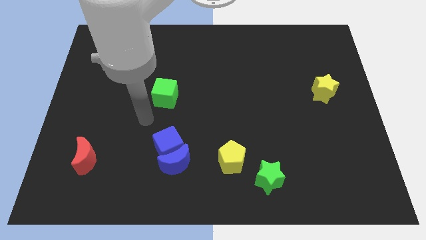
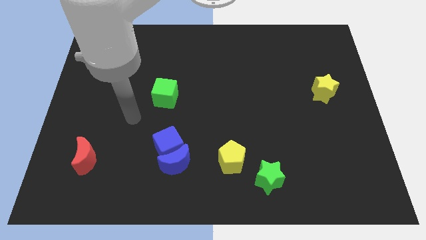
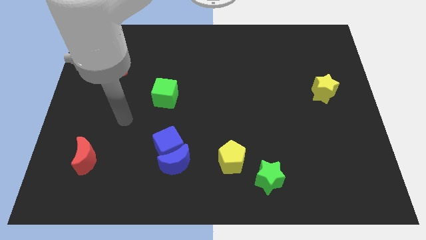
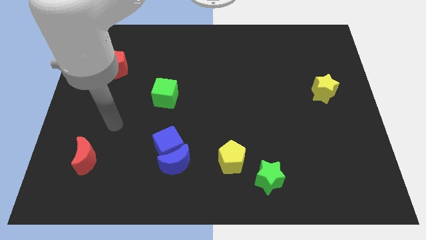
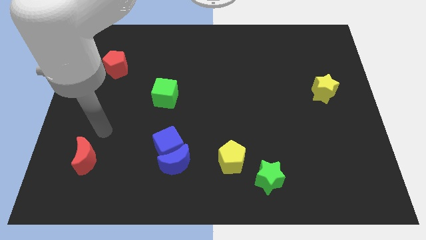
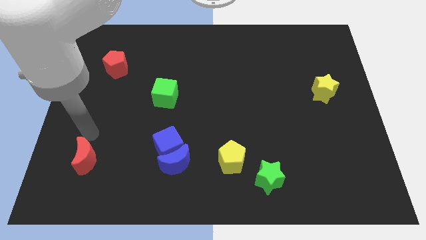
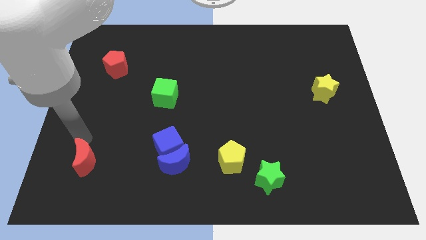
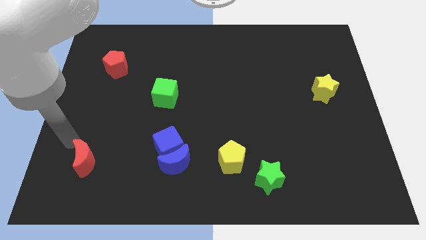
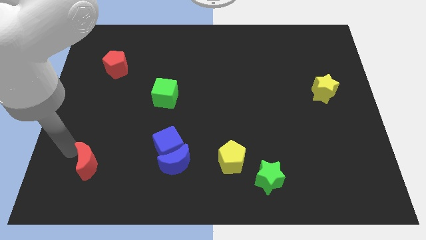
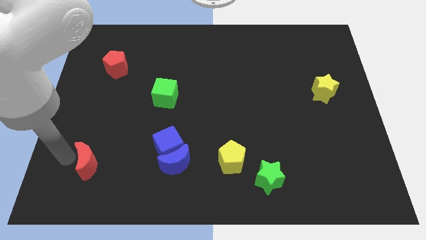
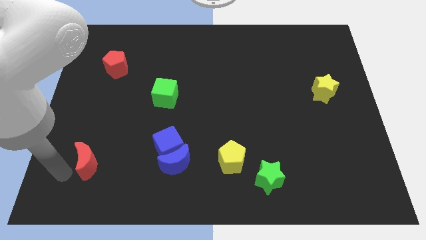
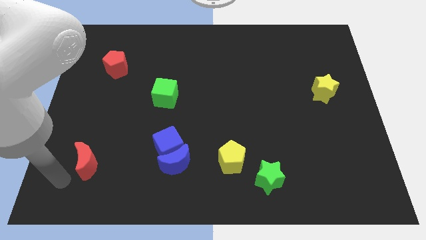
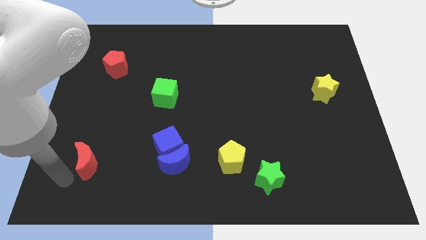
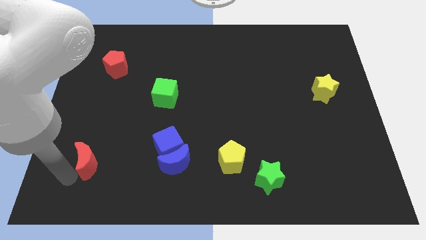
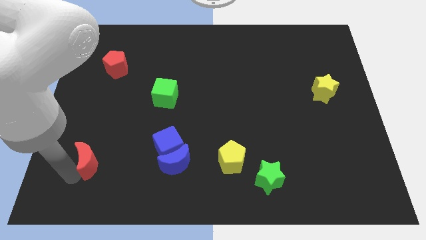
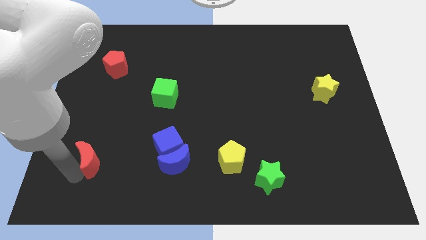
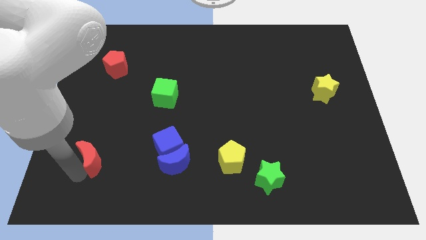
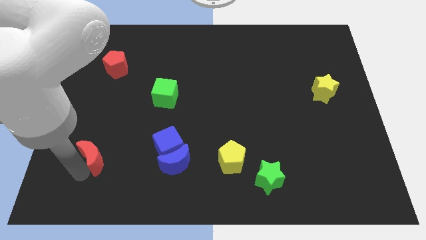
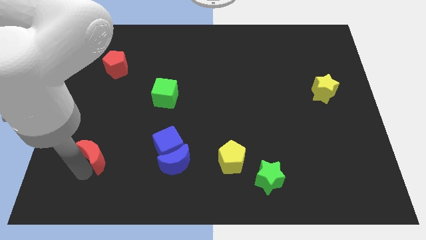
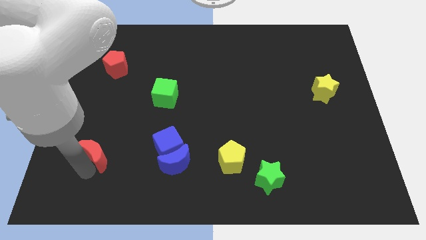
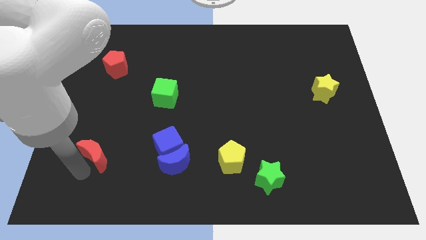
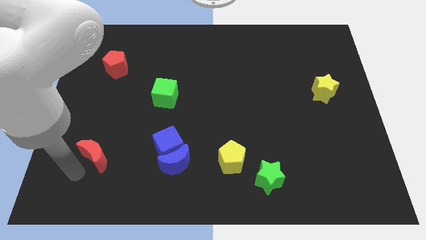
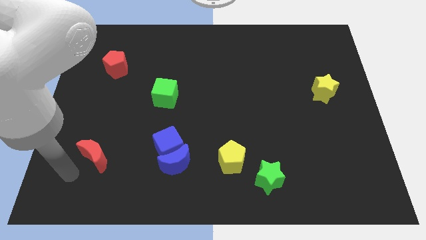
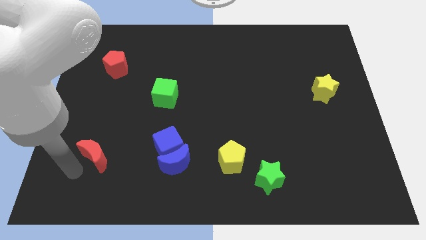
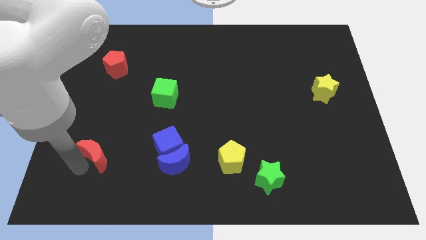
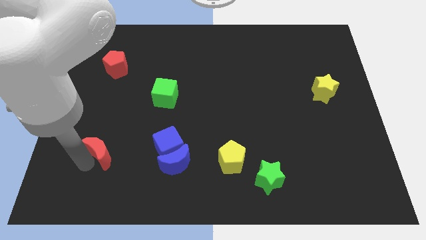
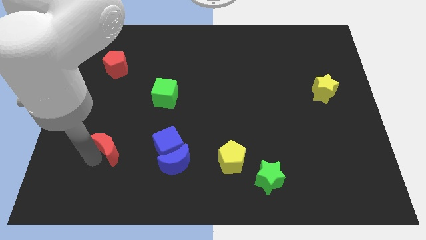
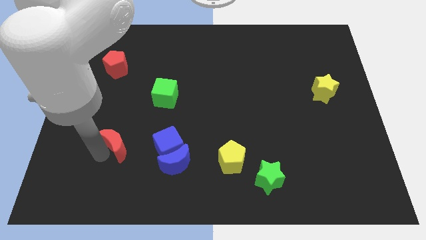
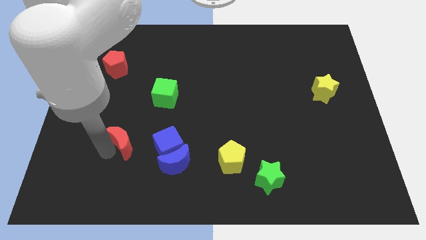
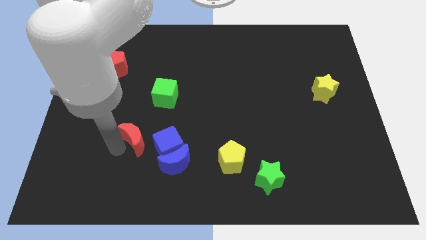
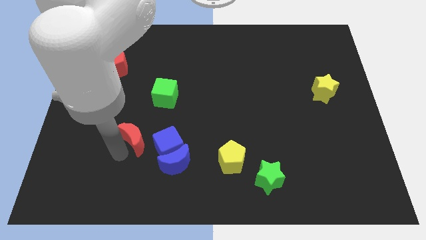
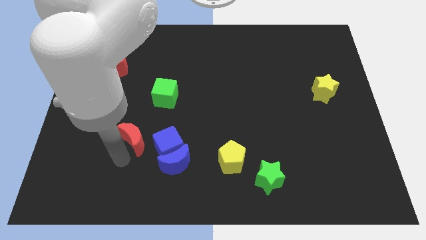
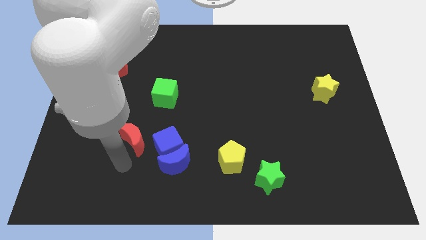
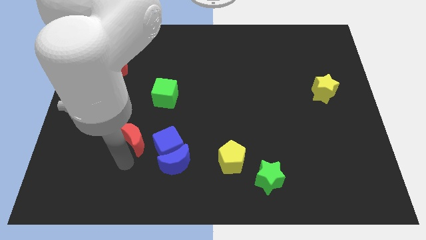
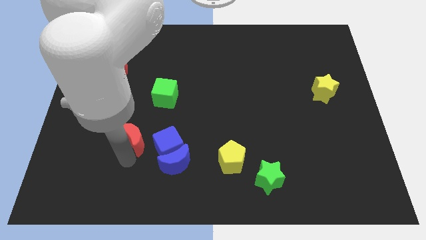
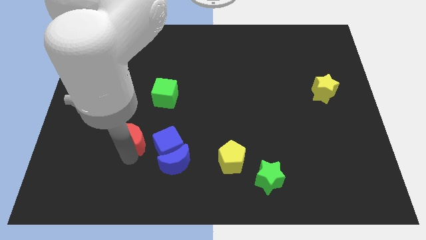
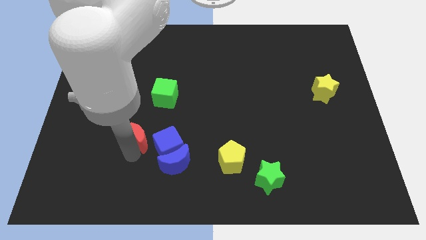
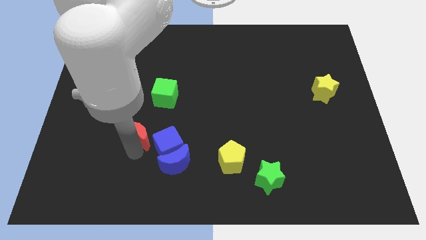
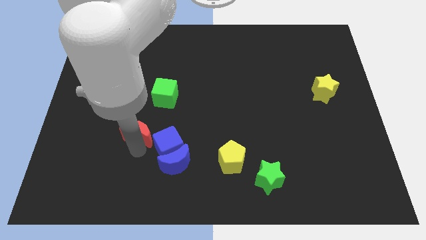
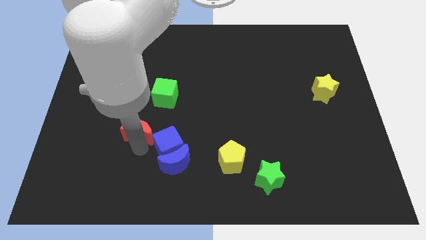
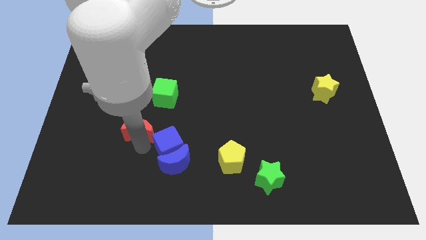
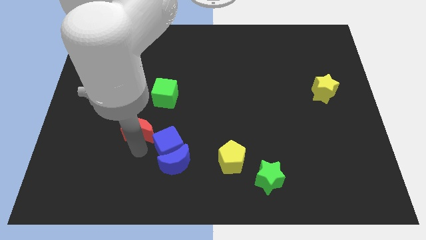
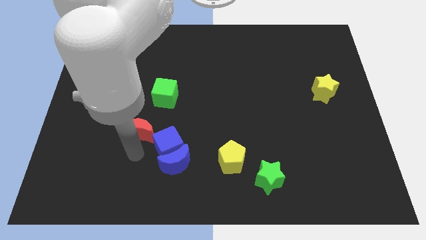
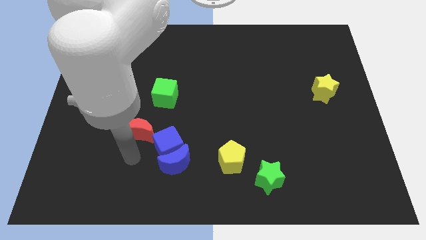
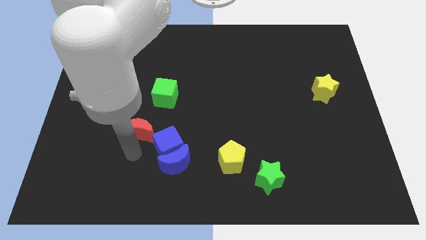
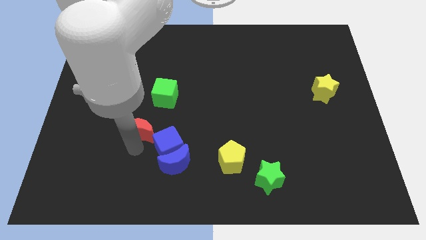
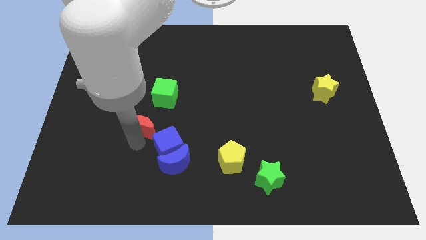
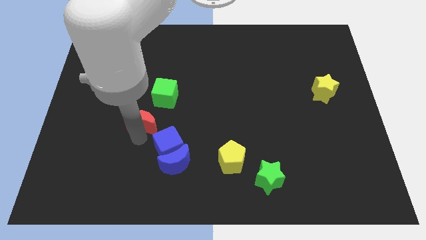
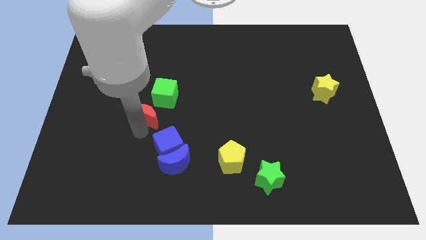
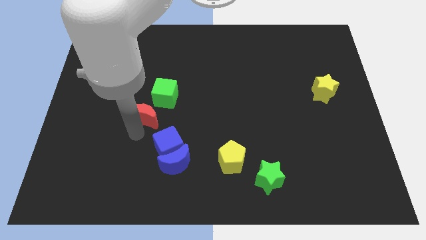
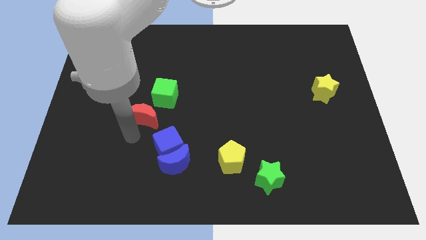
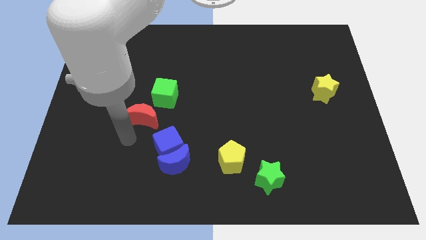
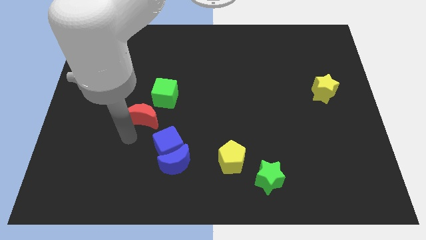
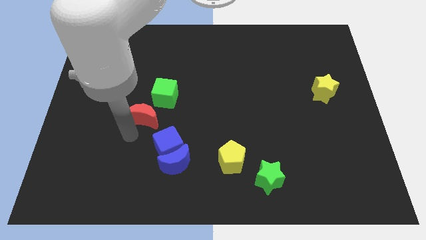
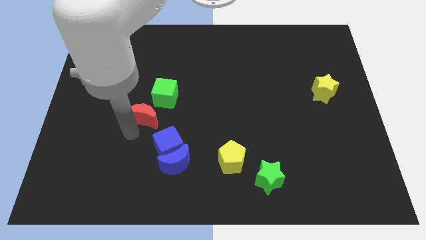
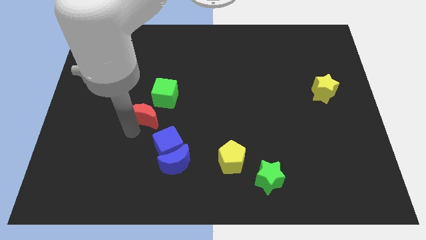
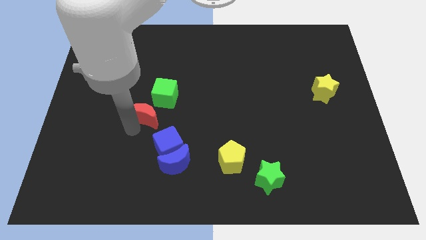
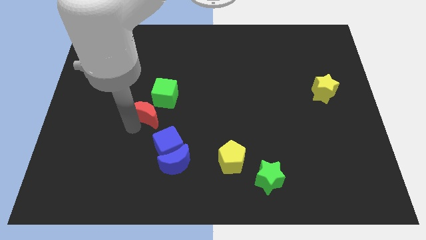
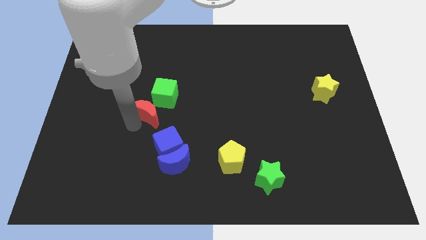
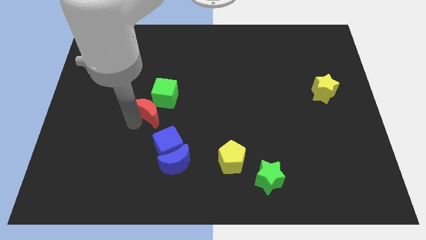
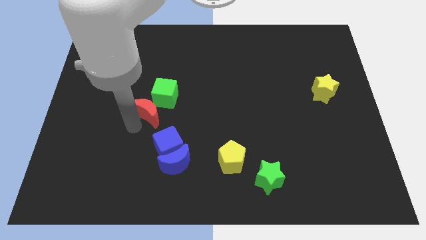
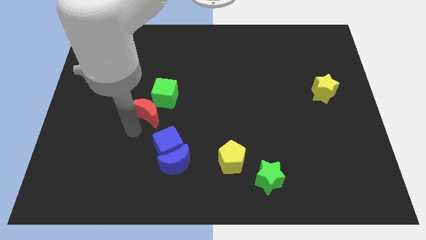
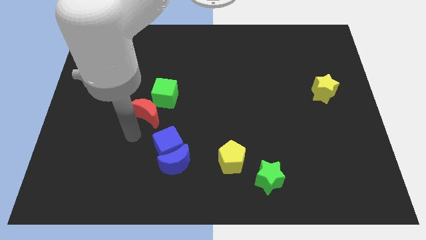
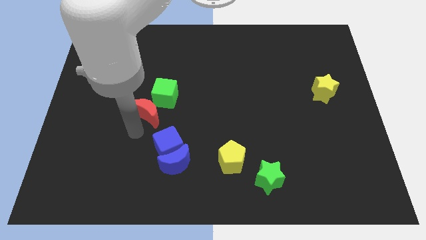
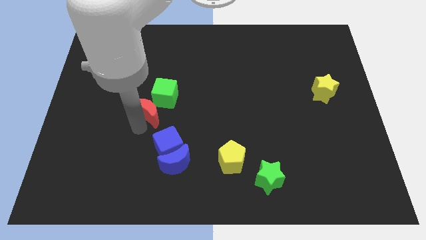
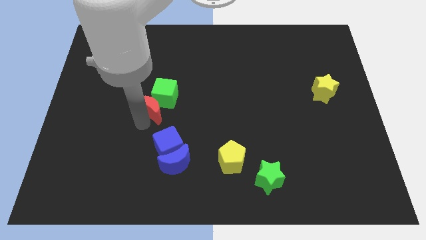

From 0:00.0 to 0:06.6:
move the red moon close to the green cube

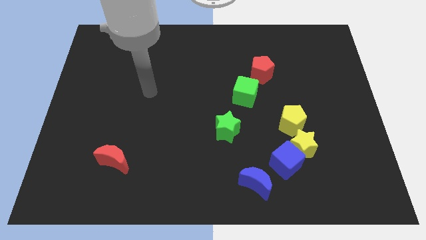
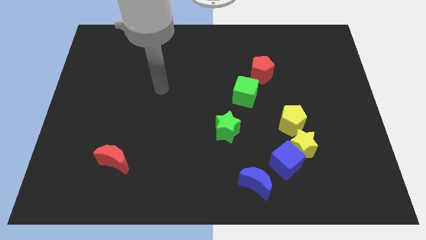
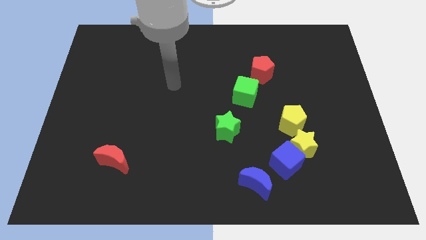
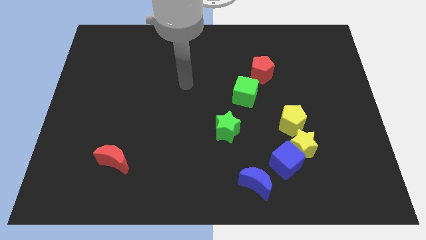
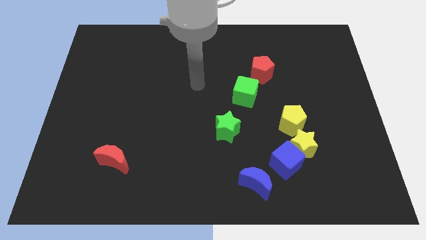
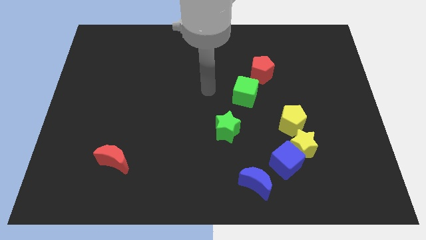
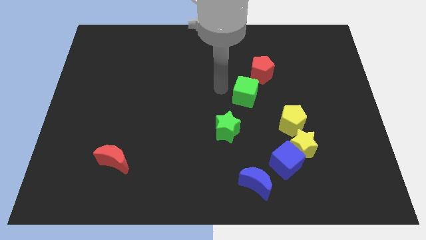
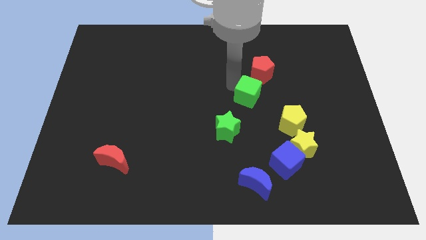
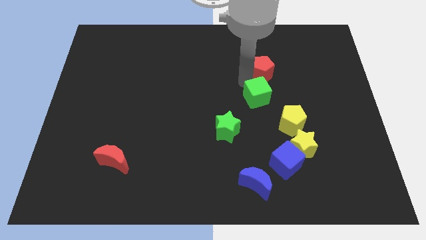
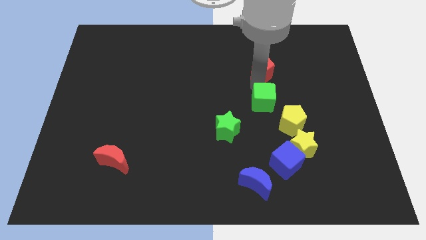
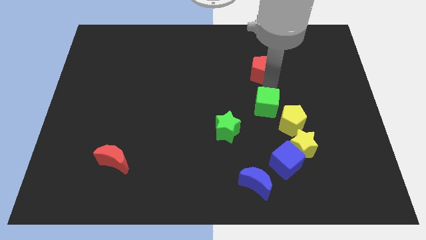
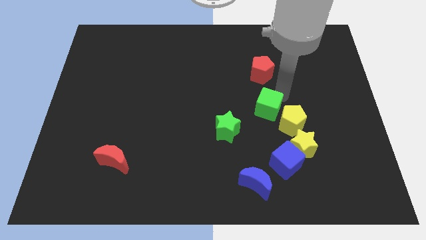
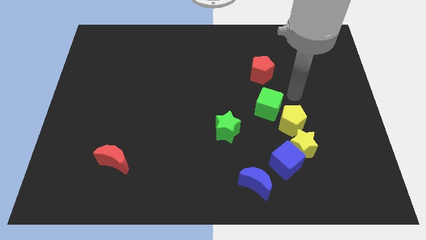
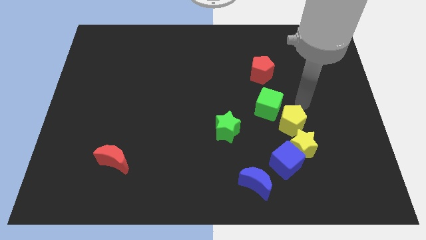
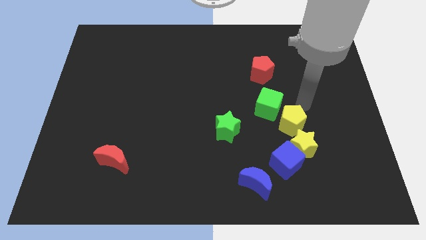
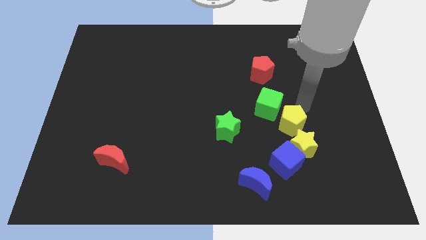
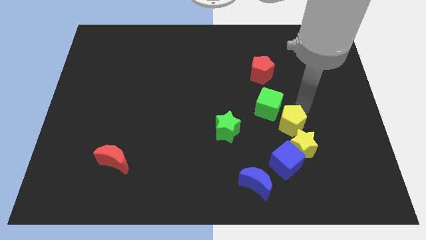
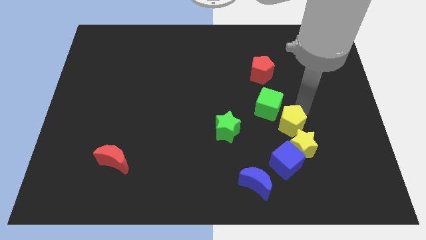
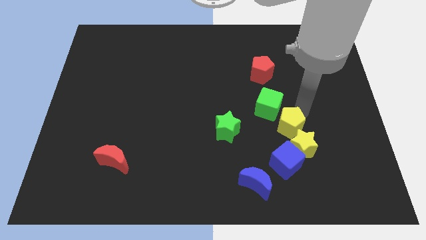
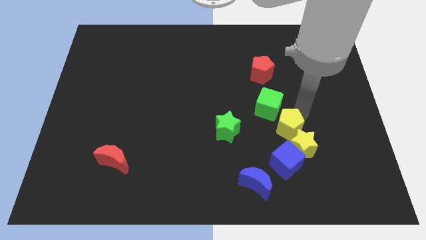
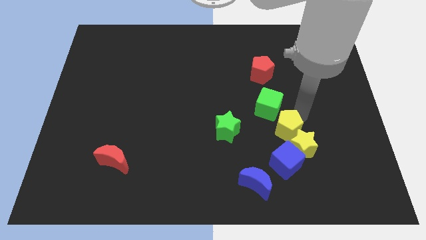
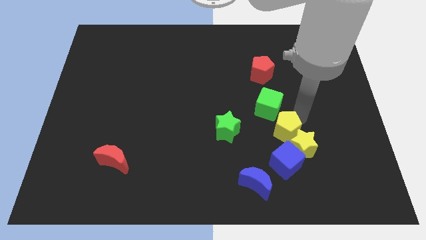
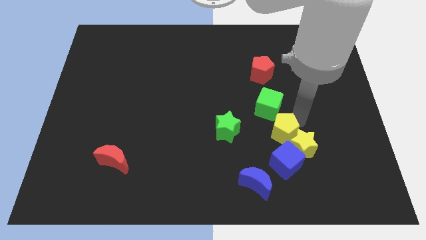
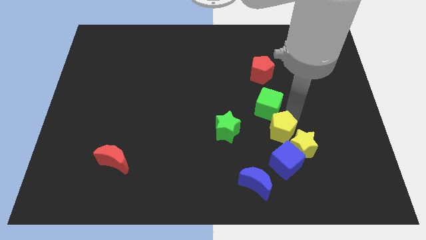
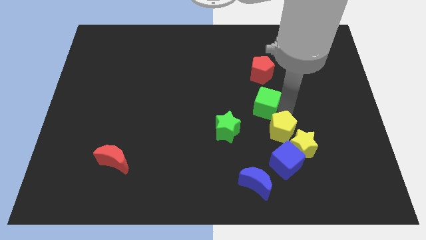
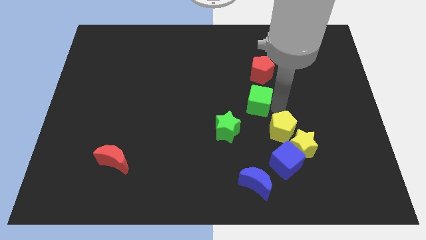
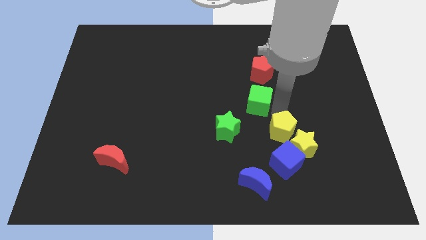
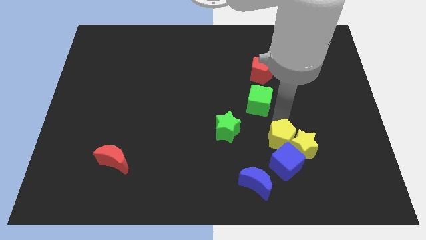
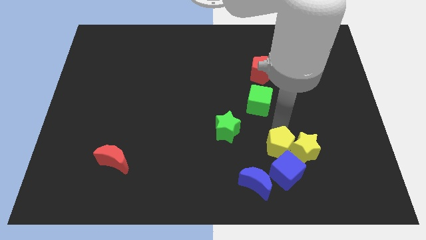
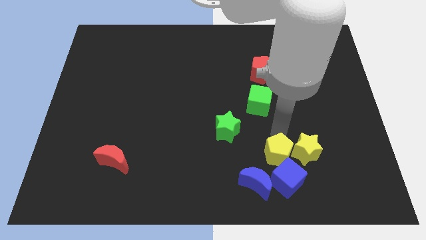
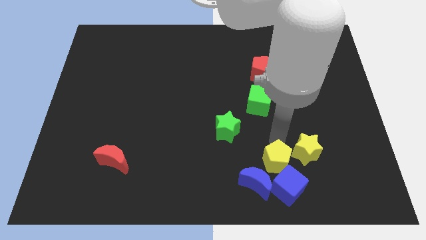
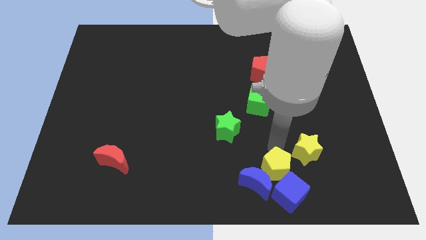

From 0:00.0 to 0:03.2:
push the yellow pentagon to the blue cube
